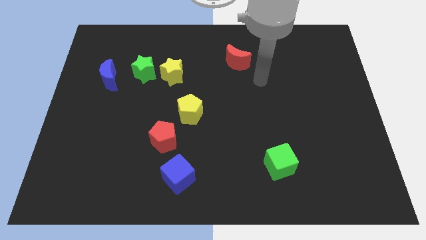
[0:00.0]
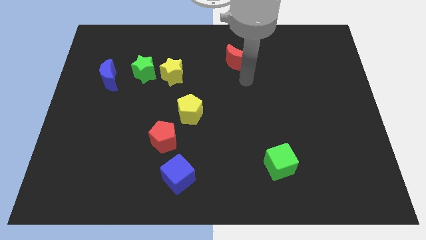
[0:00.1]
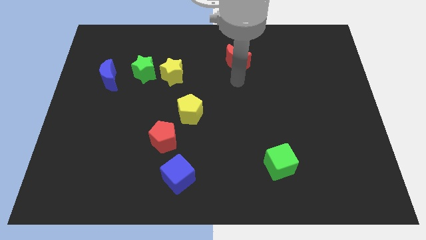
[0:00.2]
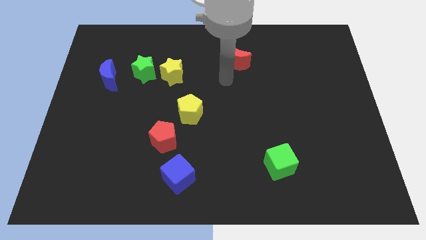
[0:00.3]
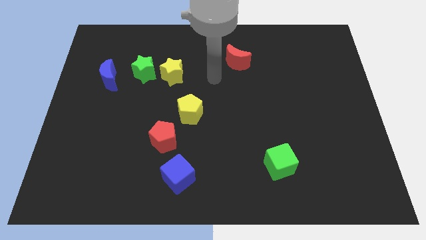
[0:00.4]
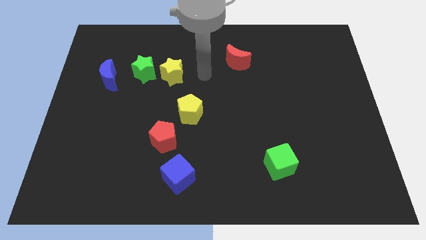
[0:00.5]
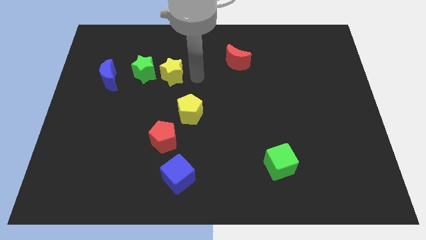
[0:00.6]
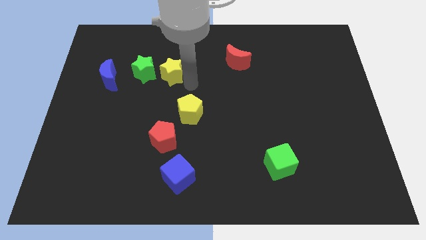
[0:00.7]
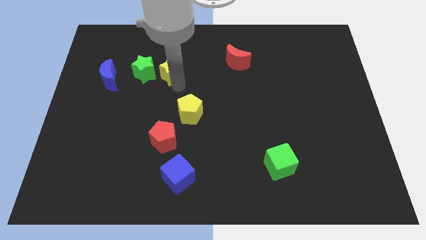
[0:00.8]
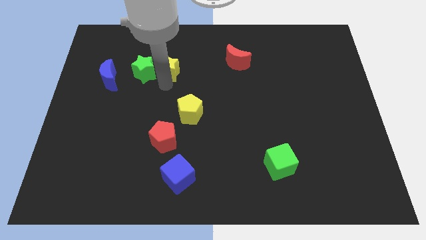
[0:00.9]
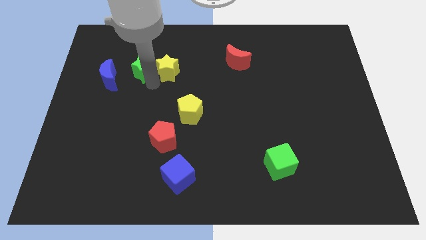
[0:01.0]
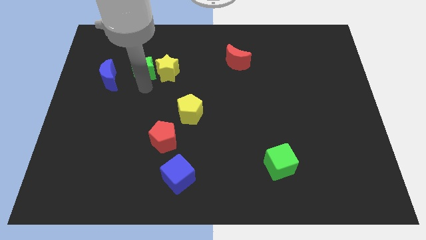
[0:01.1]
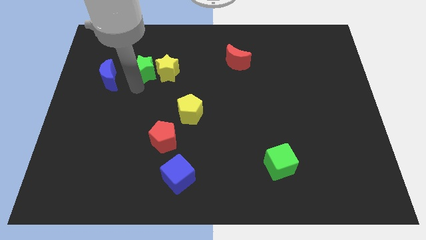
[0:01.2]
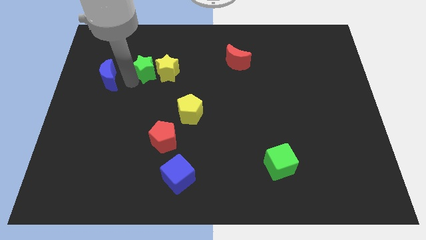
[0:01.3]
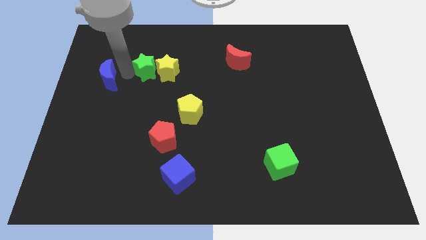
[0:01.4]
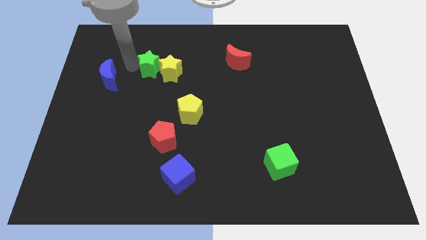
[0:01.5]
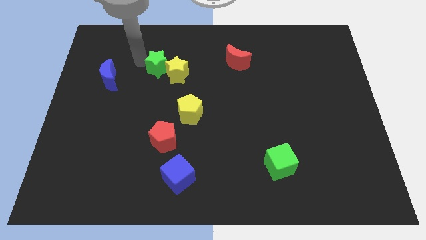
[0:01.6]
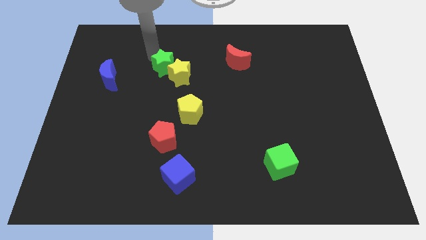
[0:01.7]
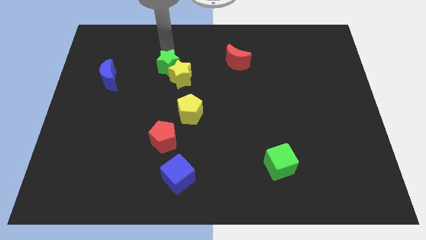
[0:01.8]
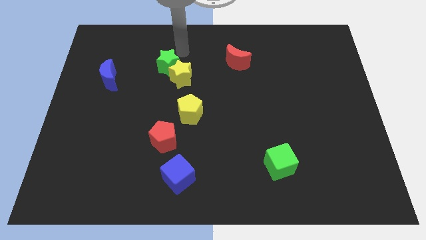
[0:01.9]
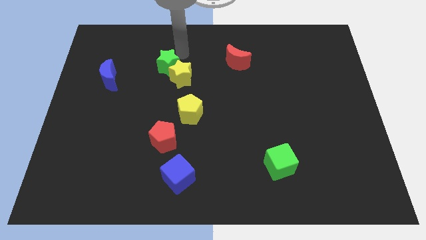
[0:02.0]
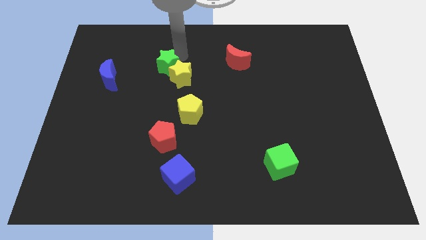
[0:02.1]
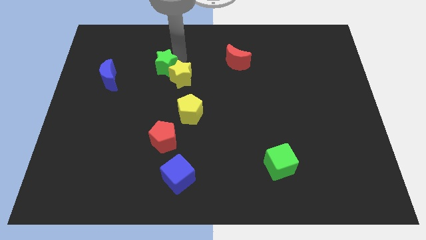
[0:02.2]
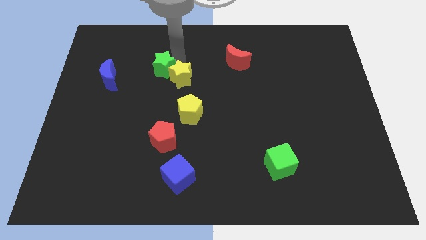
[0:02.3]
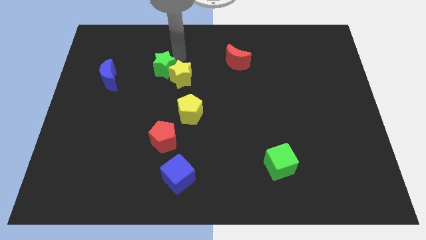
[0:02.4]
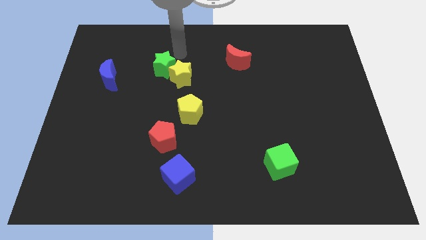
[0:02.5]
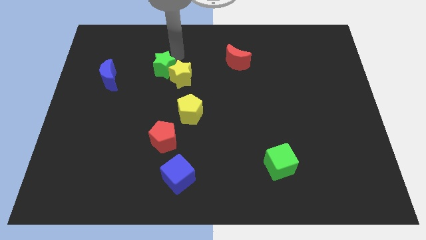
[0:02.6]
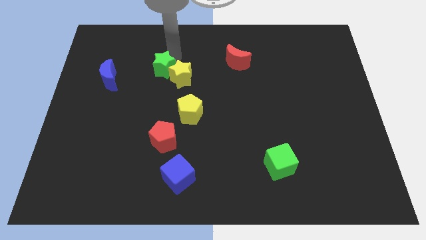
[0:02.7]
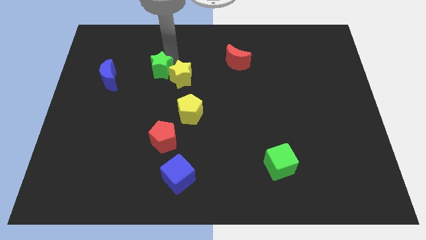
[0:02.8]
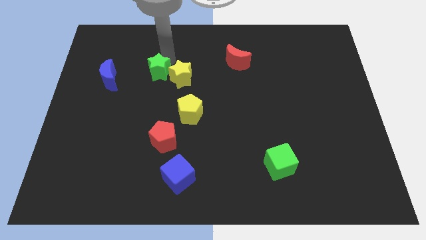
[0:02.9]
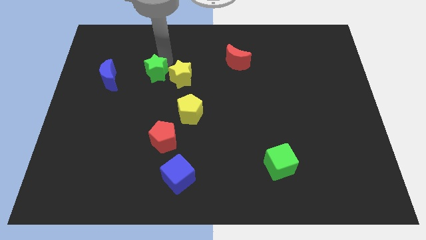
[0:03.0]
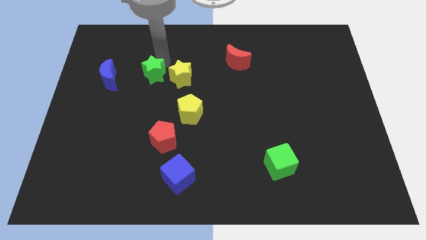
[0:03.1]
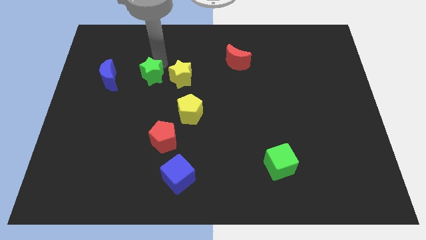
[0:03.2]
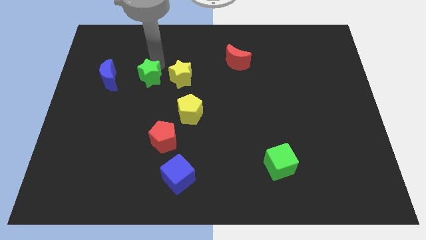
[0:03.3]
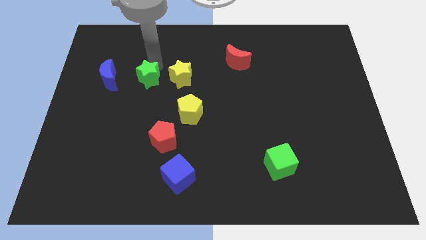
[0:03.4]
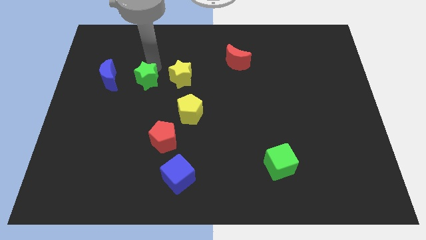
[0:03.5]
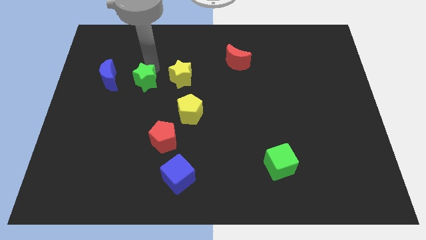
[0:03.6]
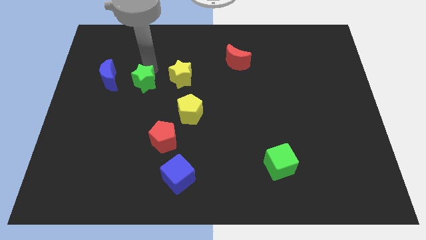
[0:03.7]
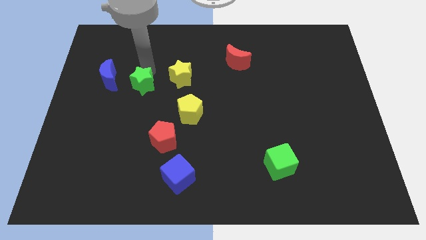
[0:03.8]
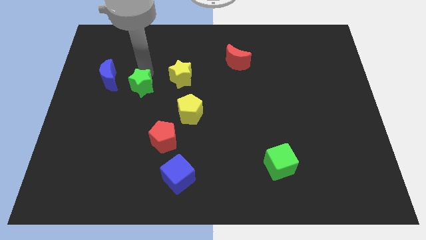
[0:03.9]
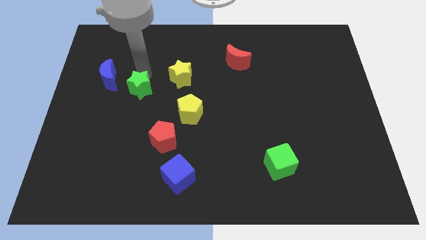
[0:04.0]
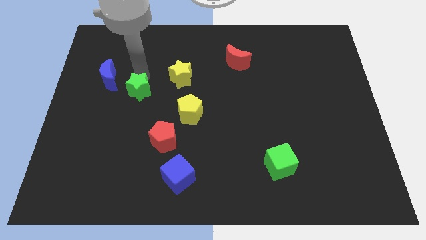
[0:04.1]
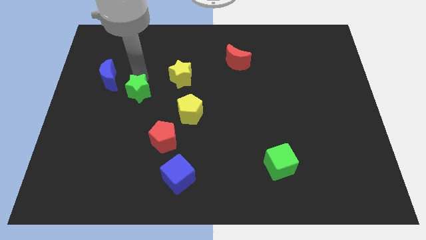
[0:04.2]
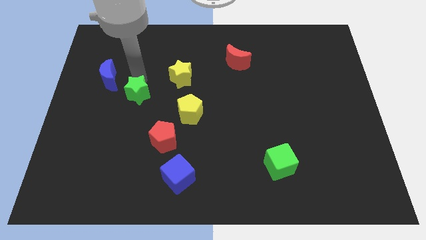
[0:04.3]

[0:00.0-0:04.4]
move the green star a bit downwards

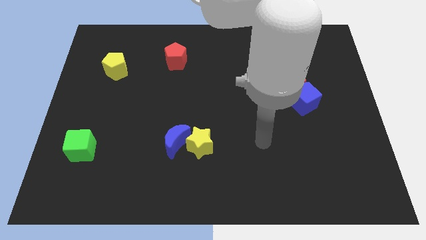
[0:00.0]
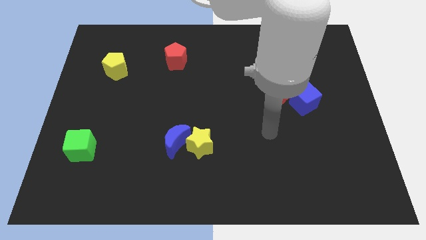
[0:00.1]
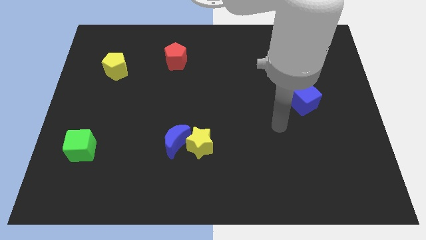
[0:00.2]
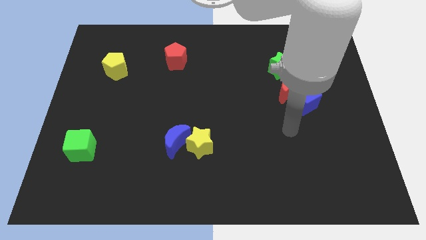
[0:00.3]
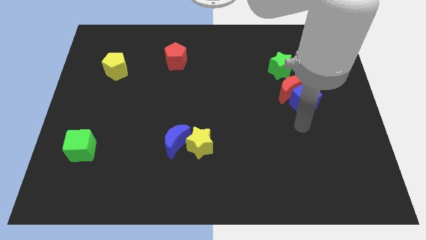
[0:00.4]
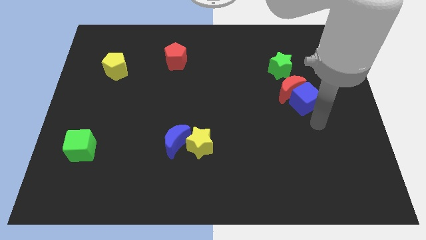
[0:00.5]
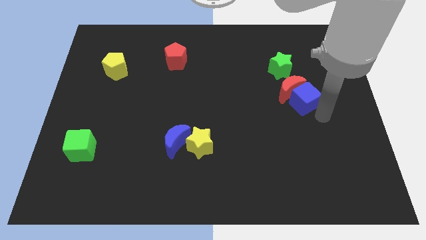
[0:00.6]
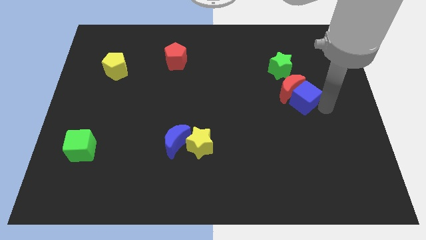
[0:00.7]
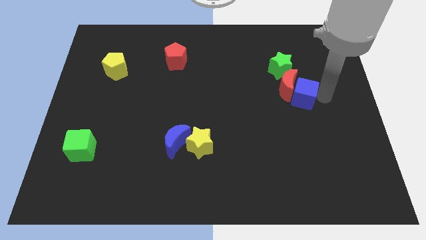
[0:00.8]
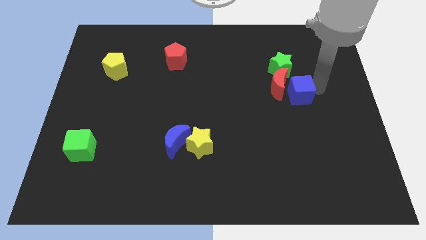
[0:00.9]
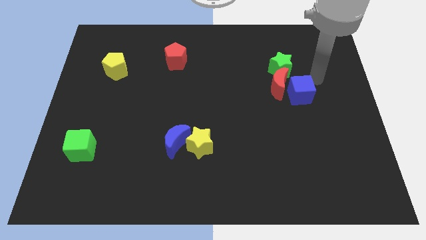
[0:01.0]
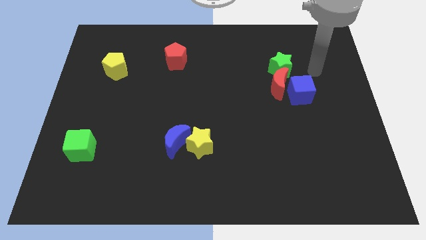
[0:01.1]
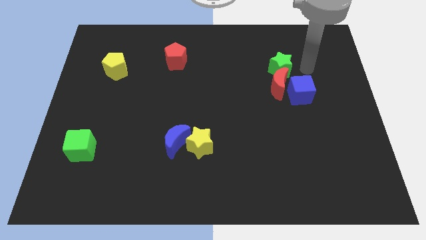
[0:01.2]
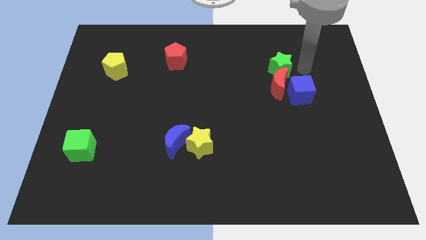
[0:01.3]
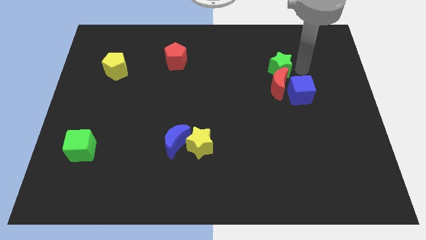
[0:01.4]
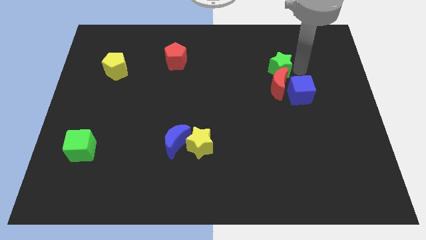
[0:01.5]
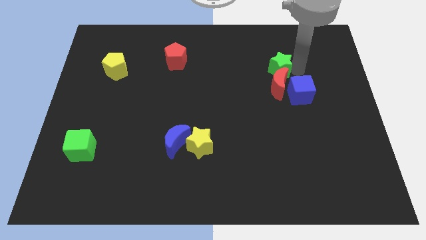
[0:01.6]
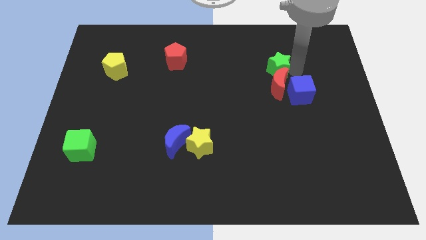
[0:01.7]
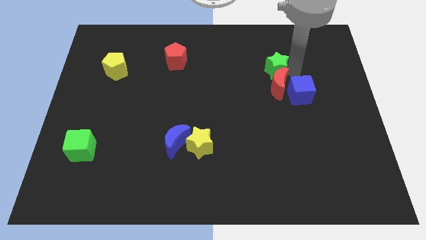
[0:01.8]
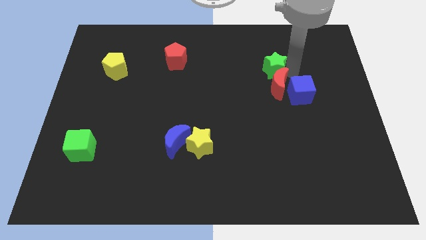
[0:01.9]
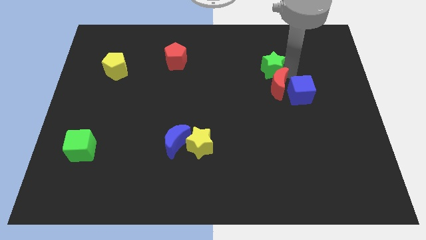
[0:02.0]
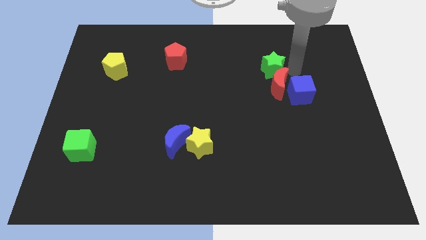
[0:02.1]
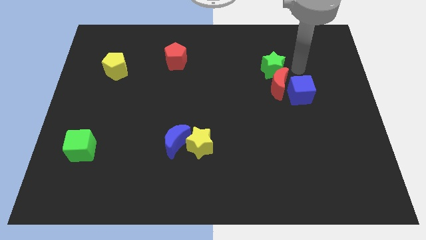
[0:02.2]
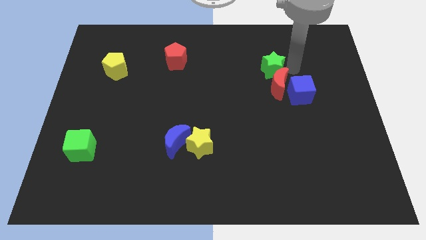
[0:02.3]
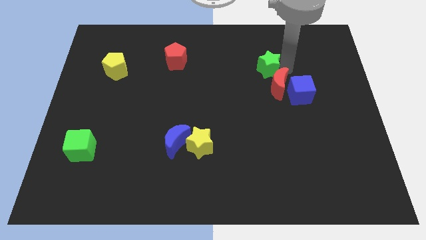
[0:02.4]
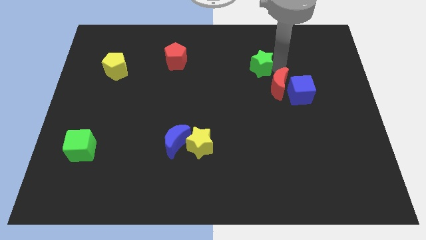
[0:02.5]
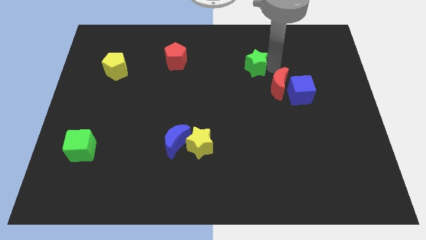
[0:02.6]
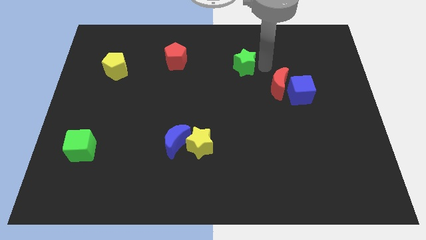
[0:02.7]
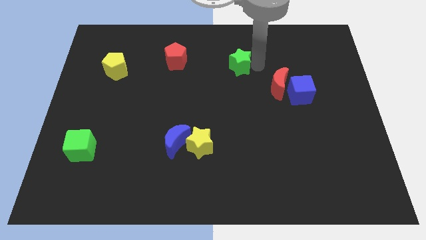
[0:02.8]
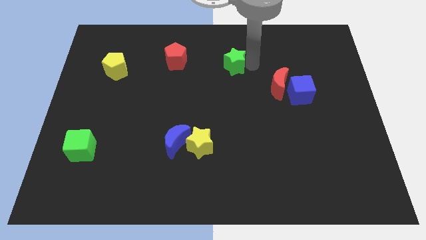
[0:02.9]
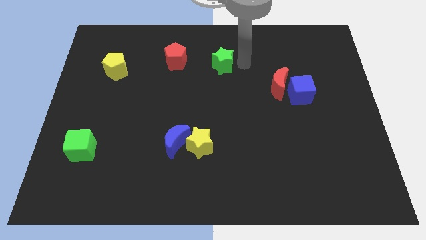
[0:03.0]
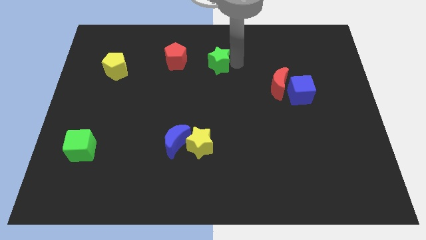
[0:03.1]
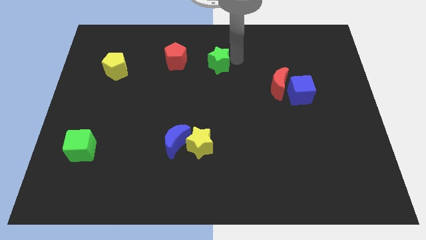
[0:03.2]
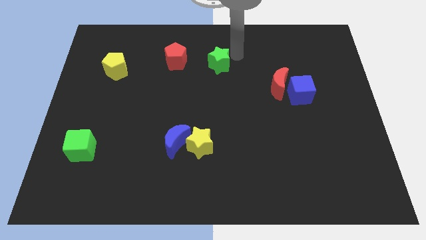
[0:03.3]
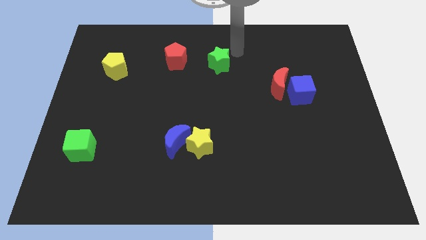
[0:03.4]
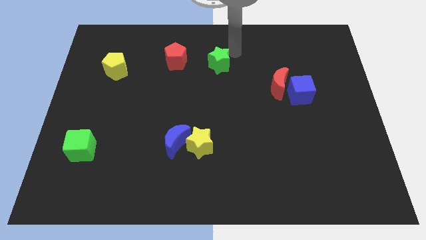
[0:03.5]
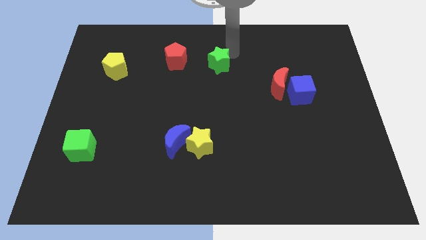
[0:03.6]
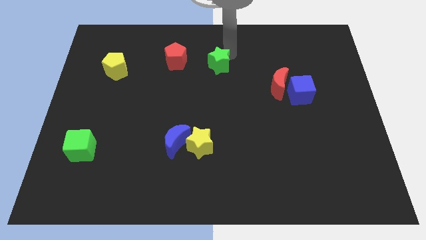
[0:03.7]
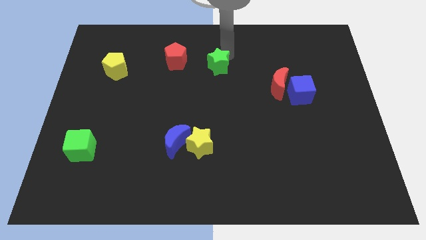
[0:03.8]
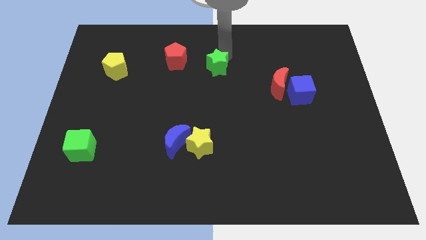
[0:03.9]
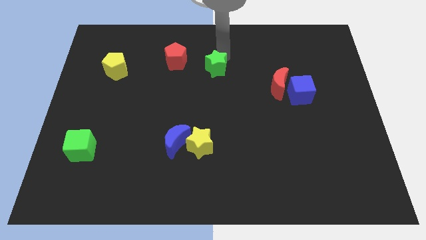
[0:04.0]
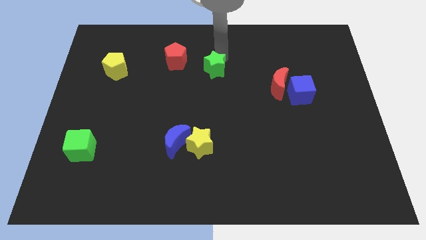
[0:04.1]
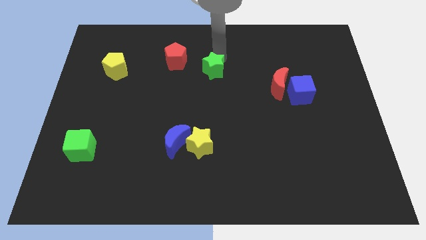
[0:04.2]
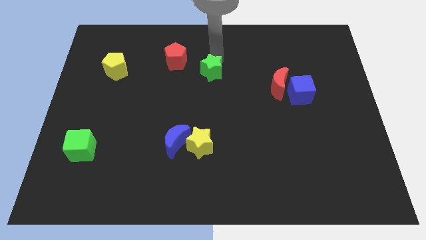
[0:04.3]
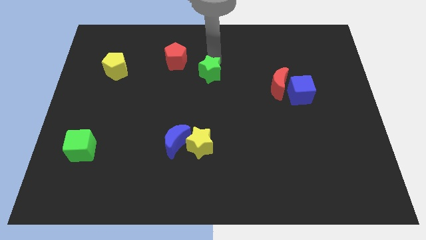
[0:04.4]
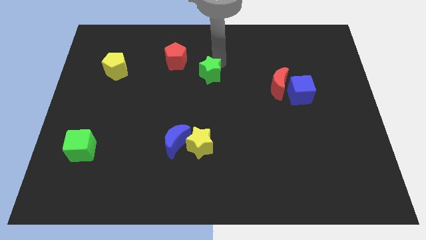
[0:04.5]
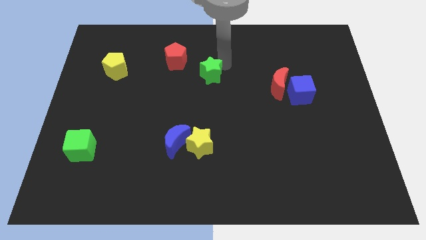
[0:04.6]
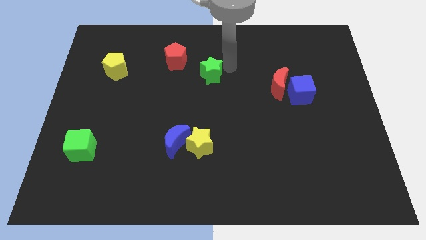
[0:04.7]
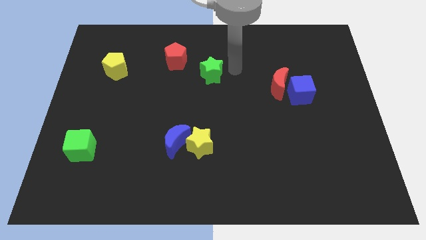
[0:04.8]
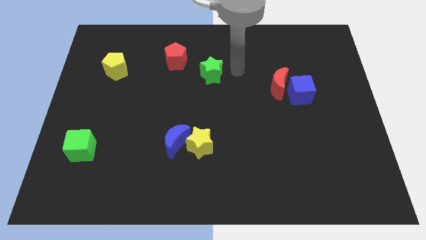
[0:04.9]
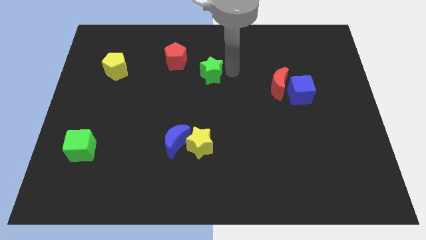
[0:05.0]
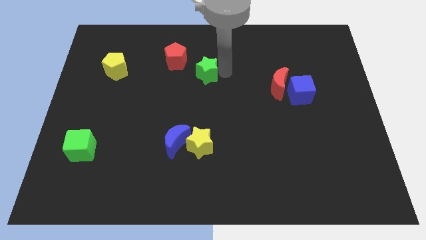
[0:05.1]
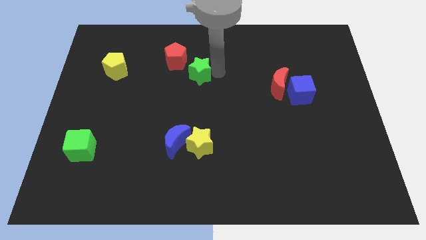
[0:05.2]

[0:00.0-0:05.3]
move the green star left
